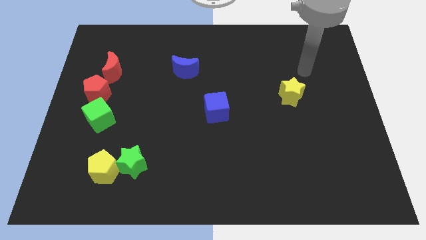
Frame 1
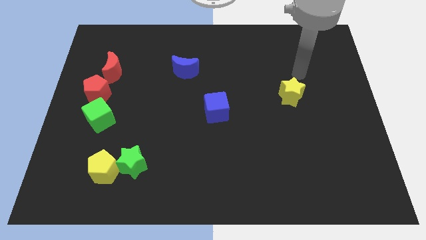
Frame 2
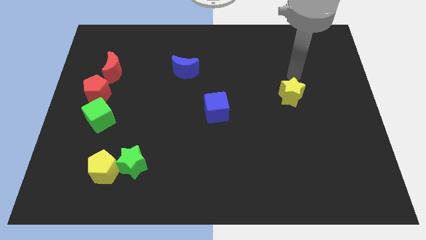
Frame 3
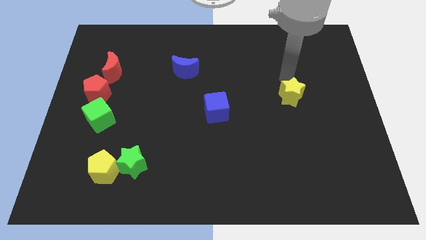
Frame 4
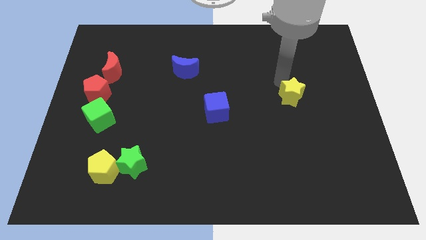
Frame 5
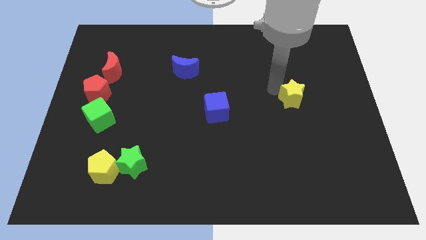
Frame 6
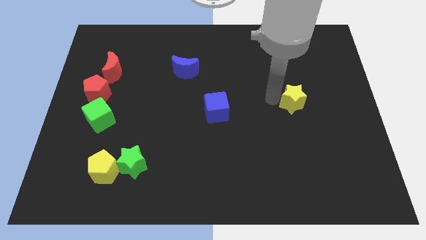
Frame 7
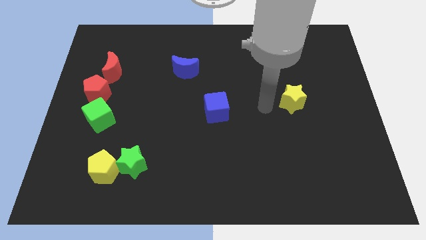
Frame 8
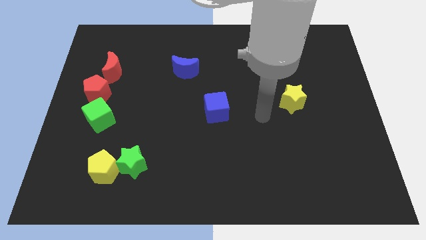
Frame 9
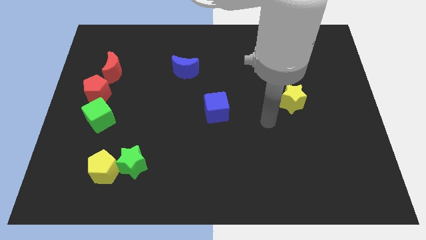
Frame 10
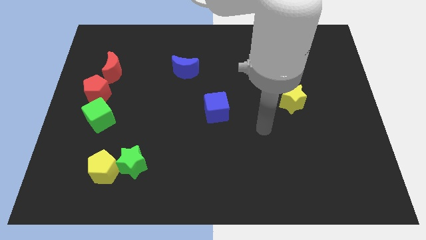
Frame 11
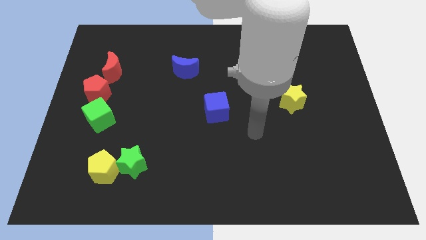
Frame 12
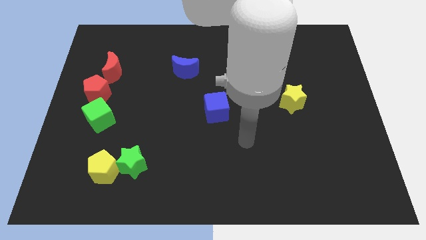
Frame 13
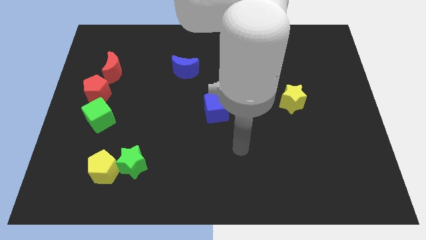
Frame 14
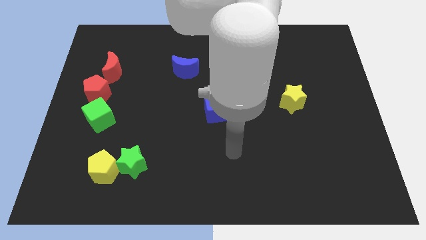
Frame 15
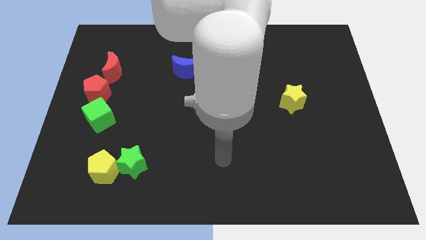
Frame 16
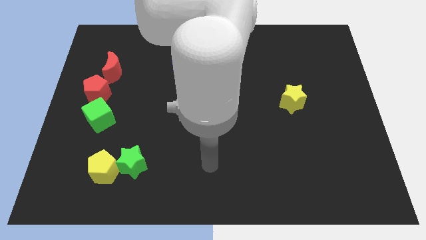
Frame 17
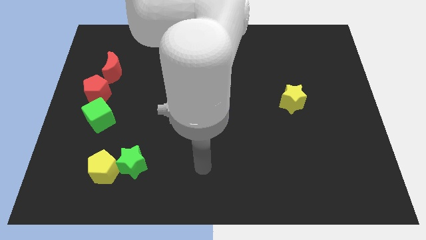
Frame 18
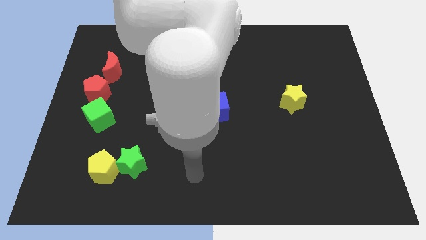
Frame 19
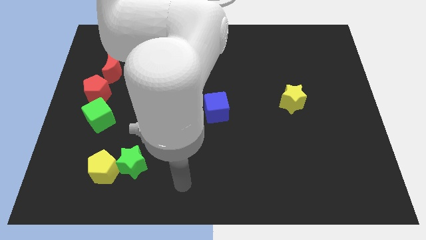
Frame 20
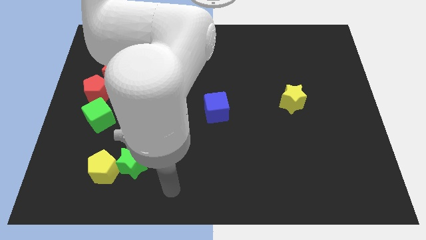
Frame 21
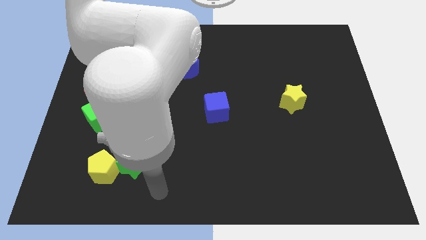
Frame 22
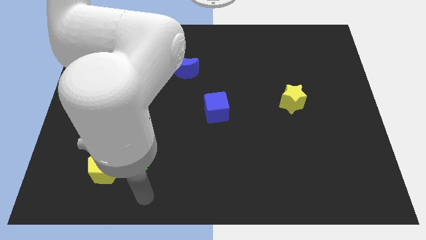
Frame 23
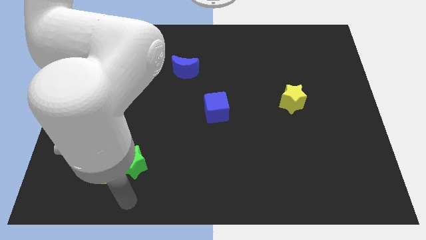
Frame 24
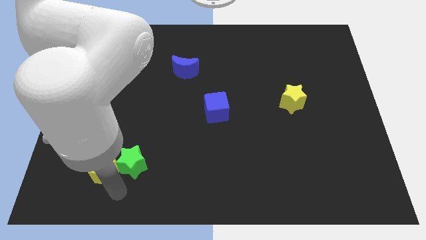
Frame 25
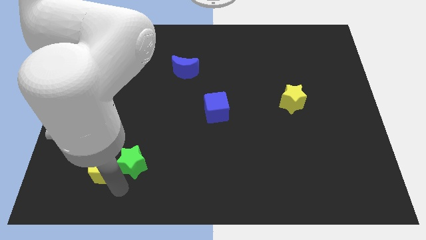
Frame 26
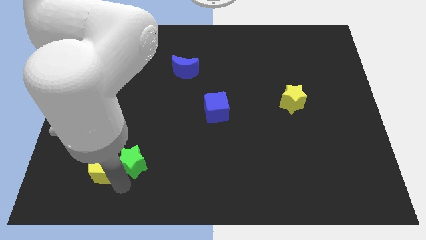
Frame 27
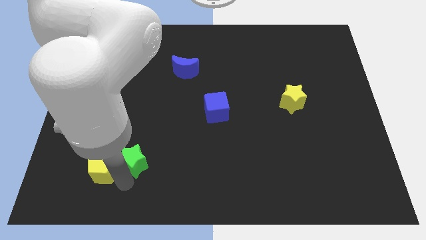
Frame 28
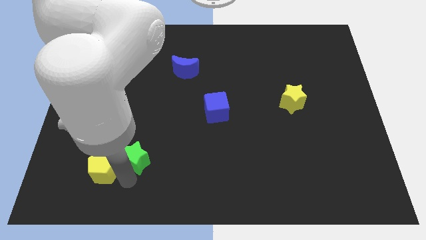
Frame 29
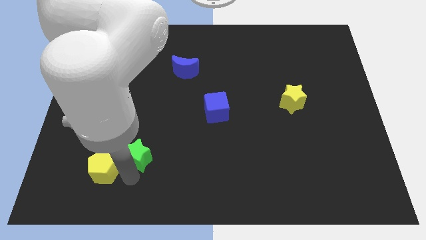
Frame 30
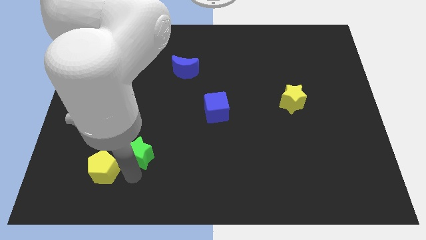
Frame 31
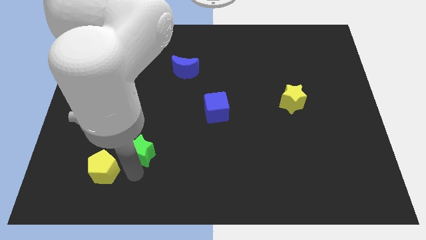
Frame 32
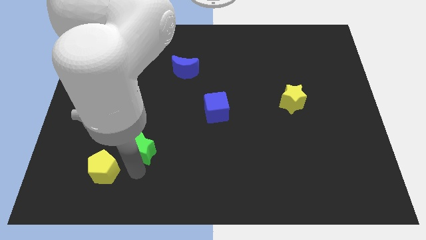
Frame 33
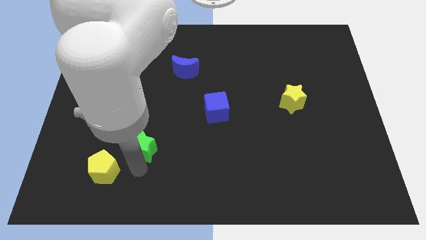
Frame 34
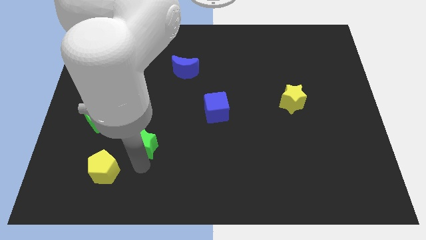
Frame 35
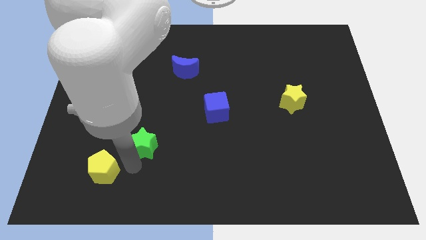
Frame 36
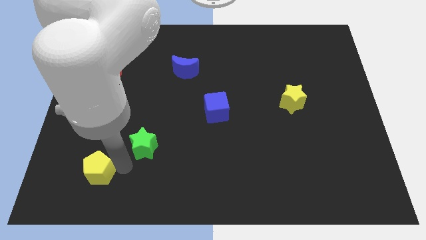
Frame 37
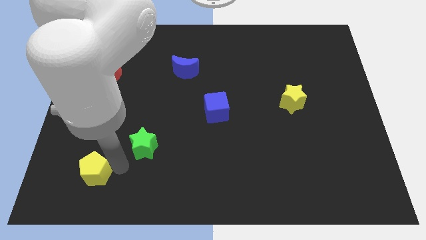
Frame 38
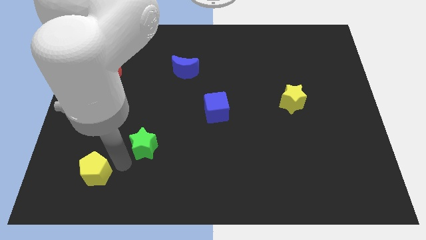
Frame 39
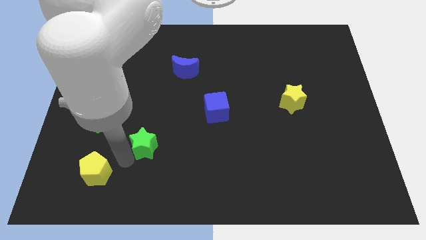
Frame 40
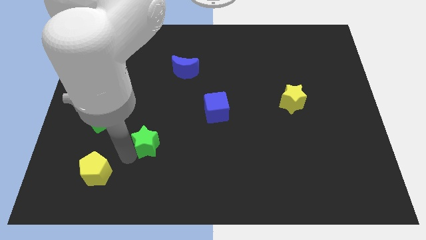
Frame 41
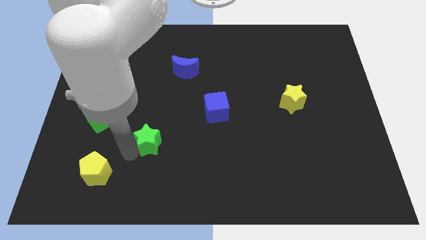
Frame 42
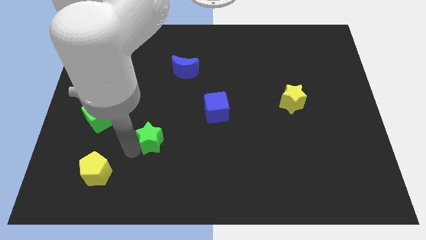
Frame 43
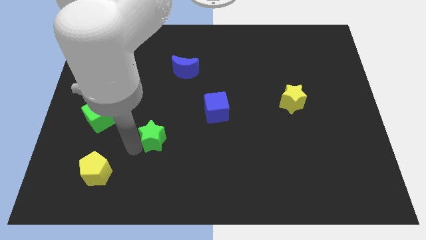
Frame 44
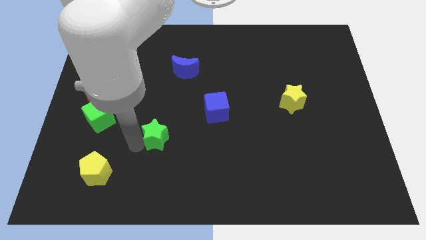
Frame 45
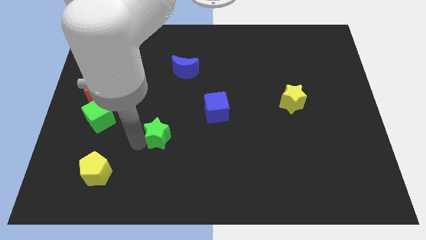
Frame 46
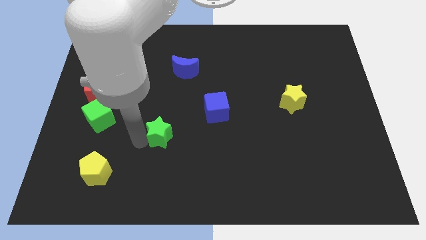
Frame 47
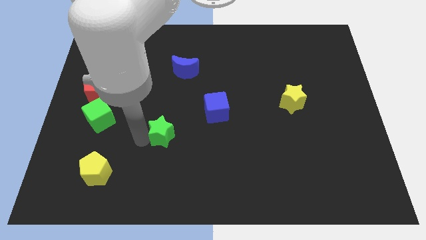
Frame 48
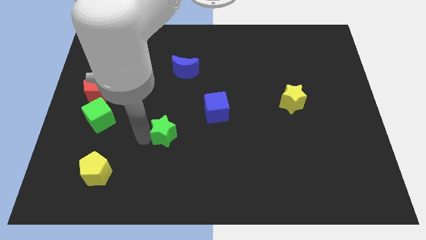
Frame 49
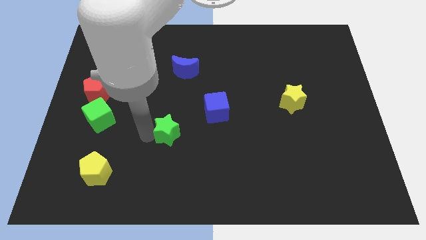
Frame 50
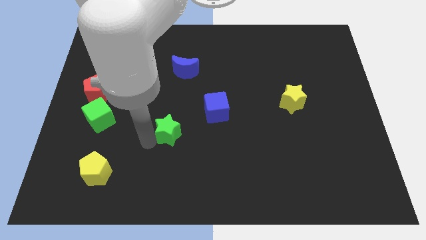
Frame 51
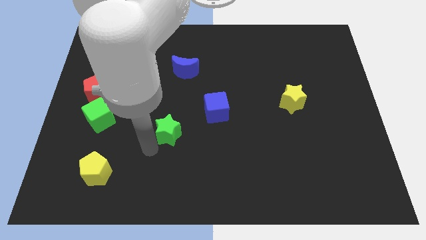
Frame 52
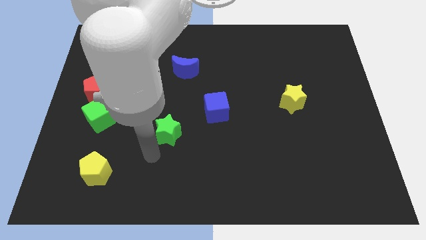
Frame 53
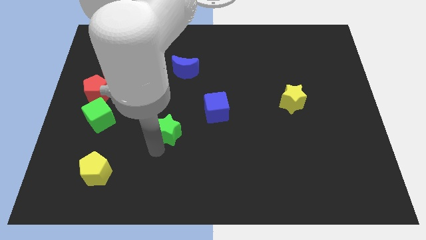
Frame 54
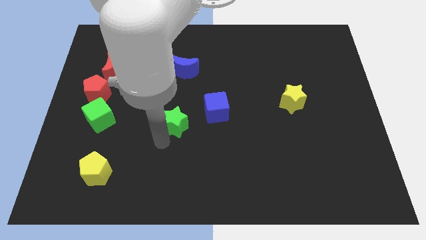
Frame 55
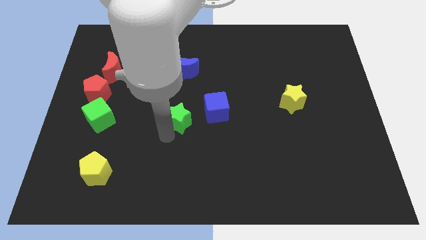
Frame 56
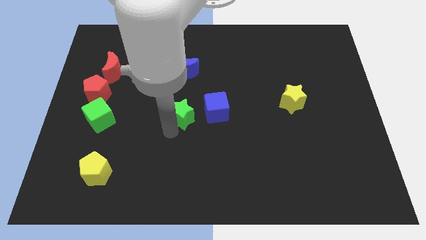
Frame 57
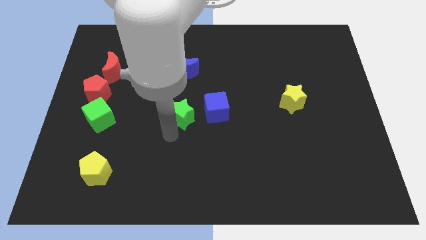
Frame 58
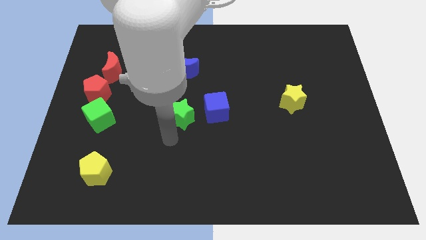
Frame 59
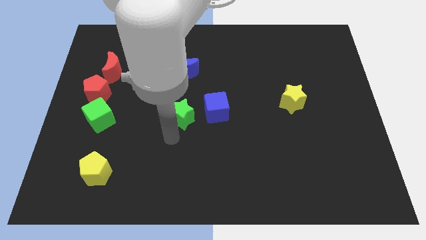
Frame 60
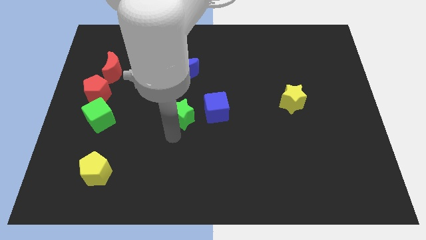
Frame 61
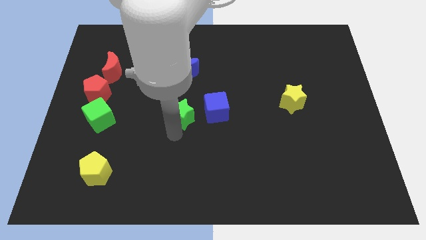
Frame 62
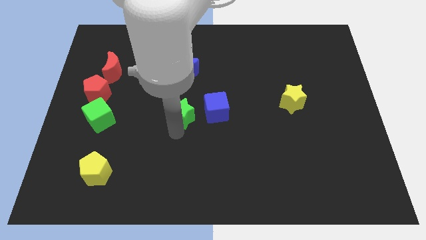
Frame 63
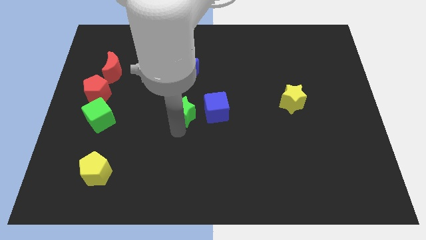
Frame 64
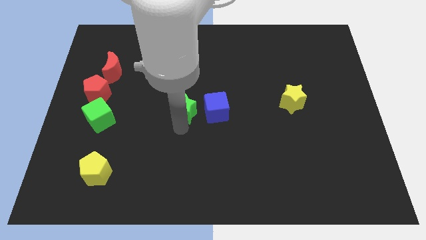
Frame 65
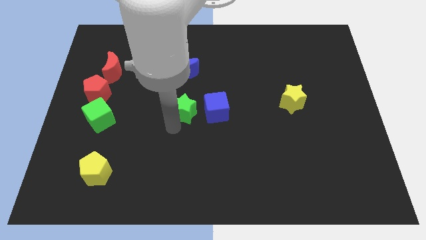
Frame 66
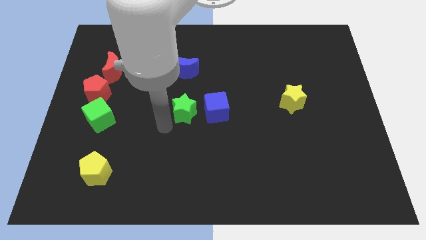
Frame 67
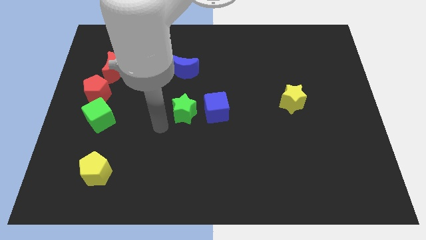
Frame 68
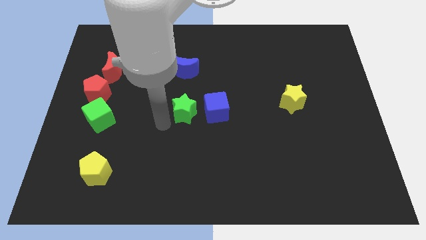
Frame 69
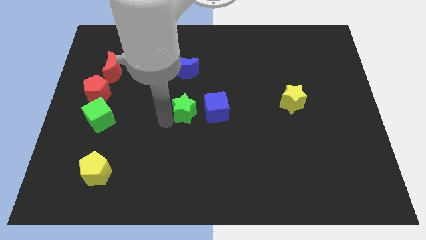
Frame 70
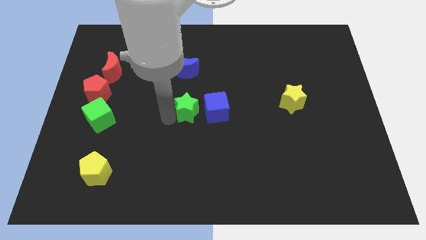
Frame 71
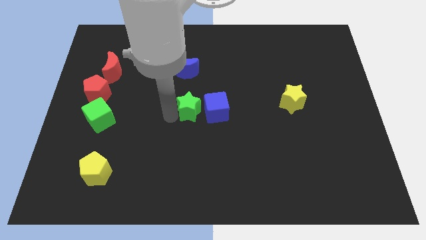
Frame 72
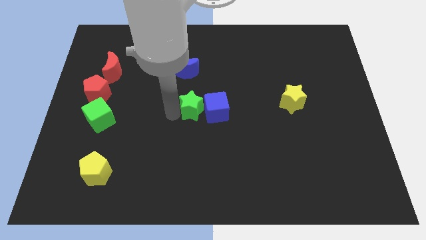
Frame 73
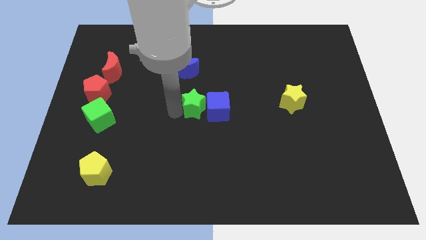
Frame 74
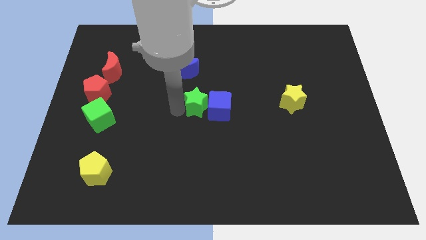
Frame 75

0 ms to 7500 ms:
push the green star up and right diagonally

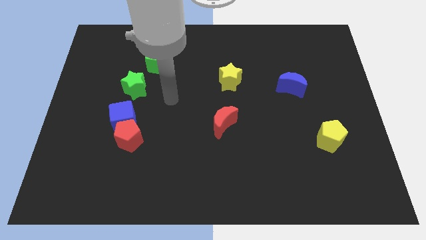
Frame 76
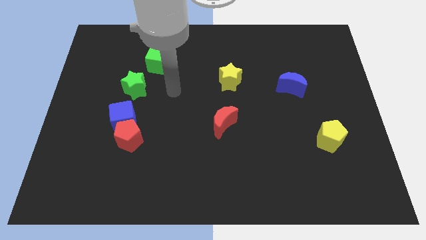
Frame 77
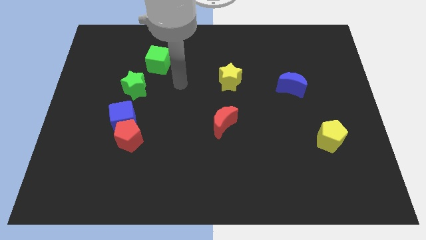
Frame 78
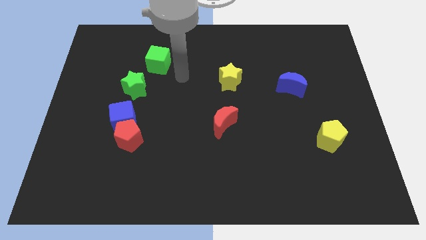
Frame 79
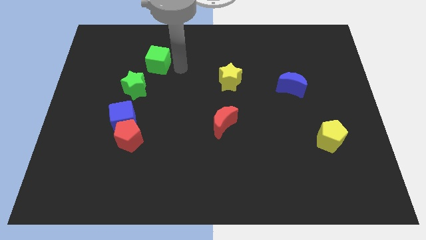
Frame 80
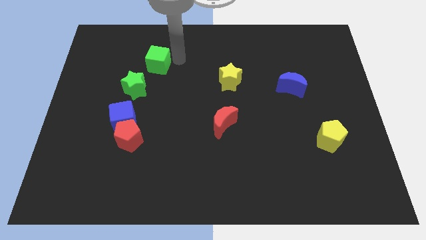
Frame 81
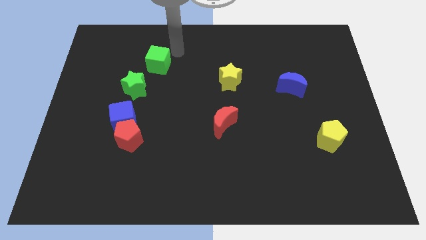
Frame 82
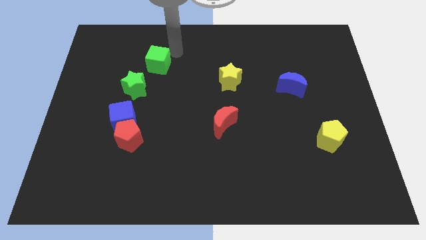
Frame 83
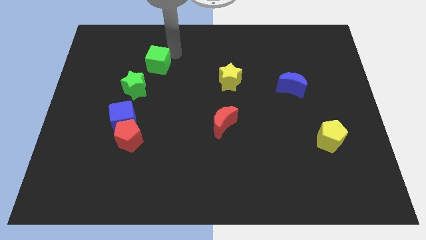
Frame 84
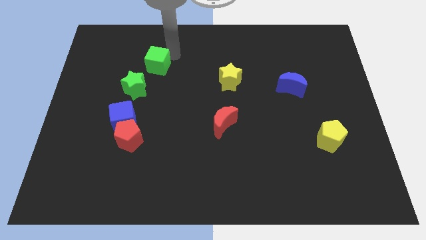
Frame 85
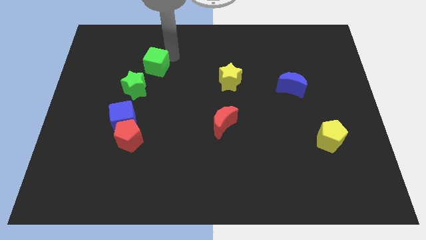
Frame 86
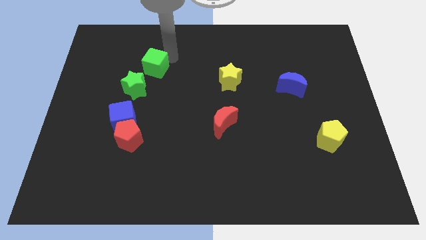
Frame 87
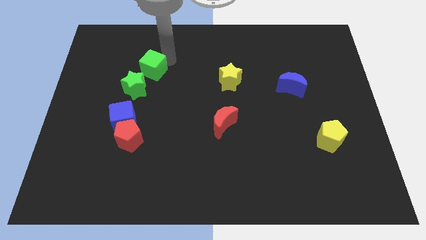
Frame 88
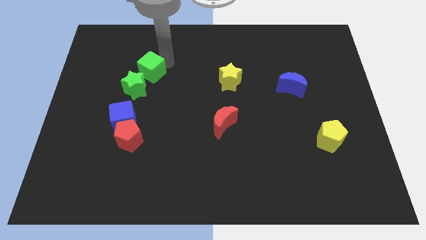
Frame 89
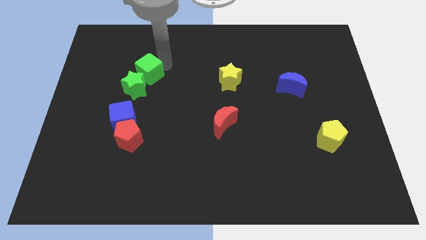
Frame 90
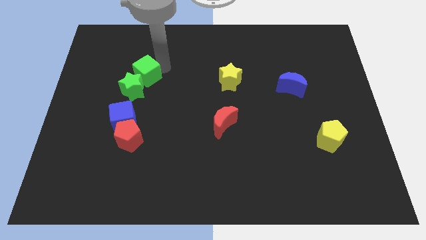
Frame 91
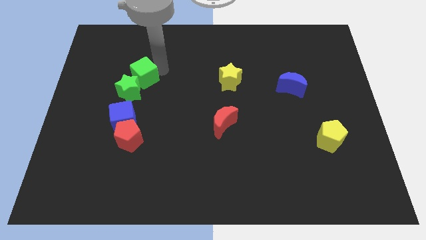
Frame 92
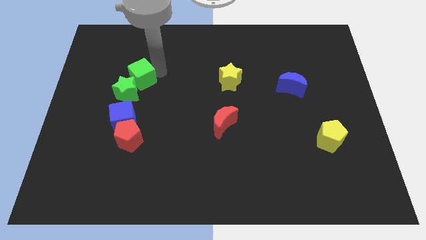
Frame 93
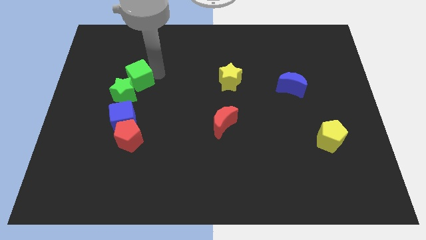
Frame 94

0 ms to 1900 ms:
push the green cube a little bit downwards and to the left
